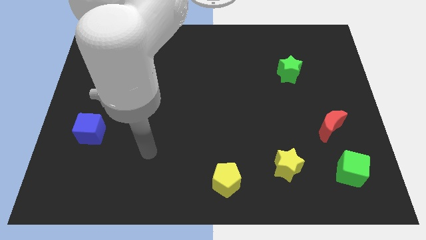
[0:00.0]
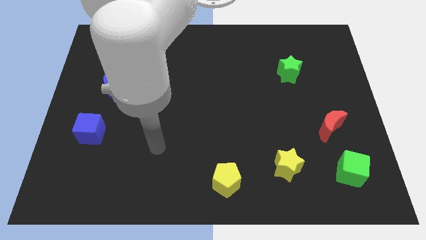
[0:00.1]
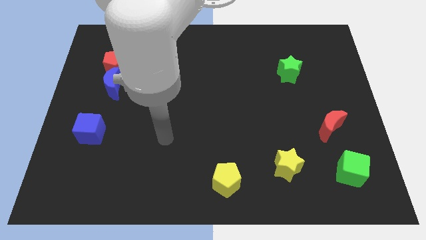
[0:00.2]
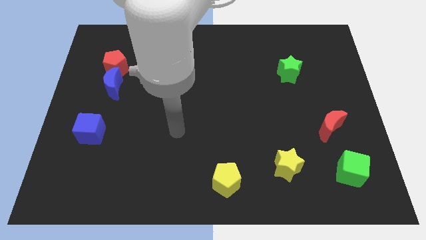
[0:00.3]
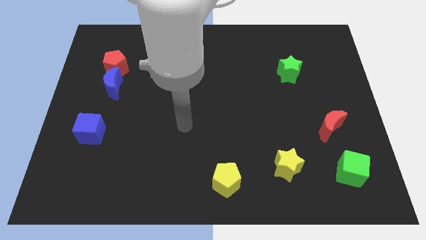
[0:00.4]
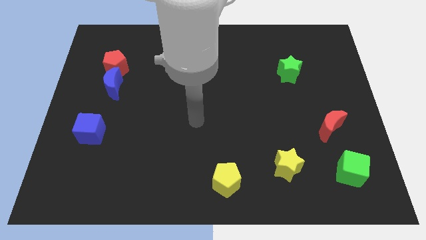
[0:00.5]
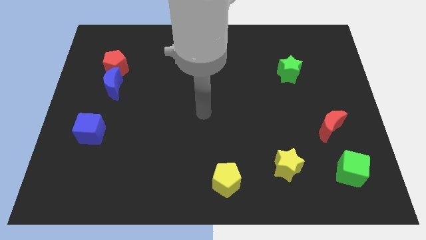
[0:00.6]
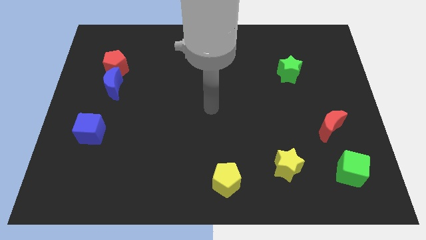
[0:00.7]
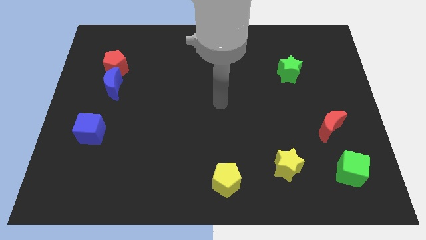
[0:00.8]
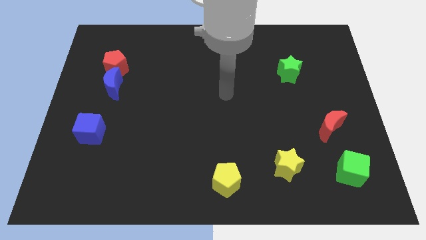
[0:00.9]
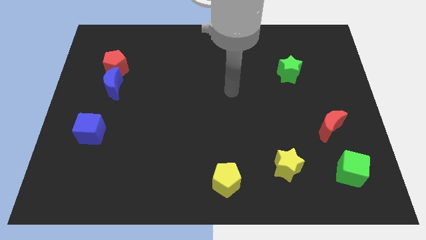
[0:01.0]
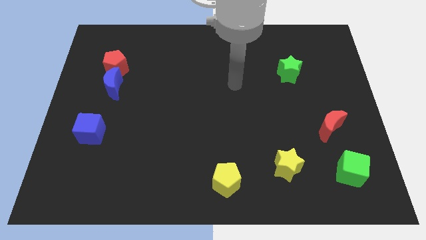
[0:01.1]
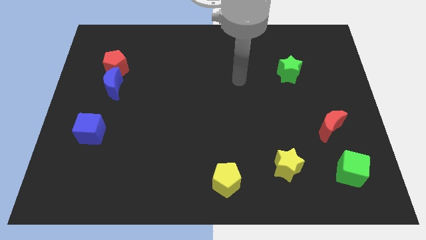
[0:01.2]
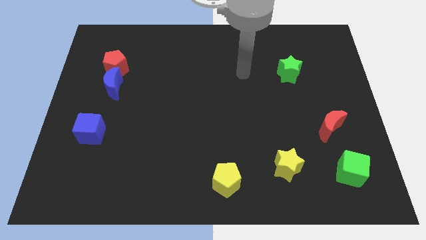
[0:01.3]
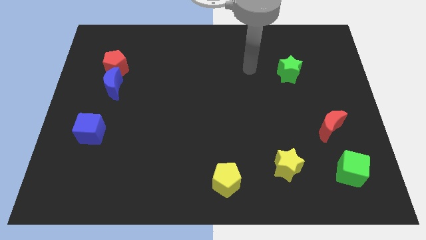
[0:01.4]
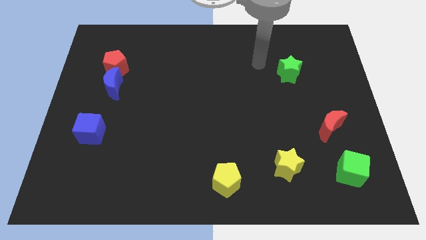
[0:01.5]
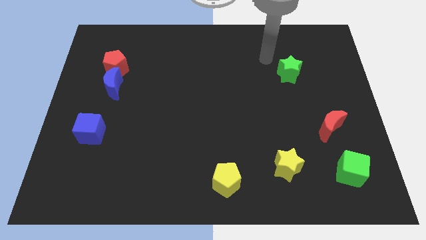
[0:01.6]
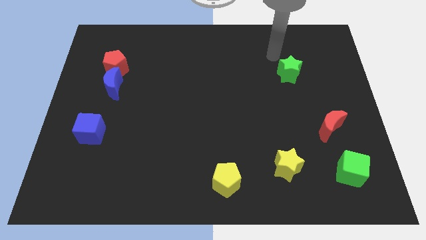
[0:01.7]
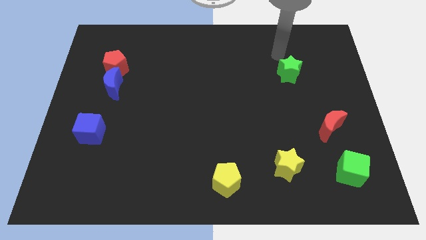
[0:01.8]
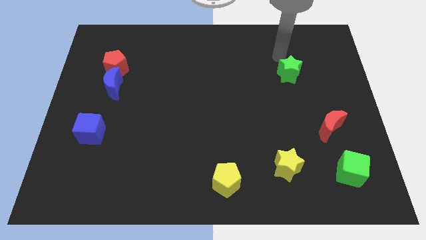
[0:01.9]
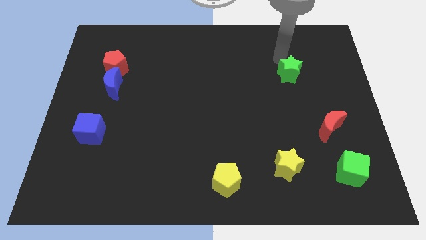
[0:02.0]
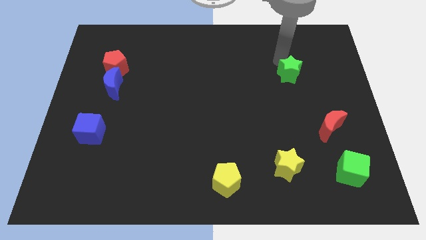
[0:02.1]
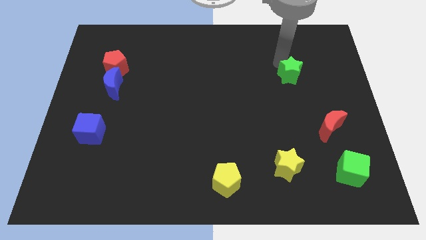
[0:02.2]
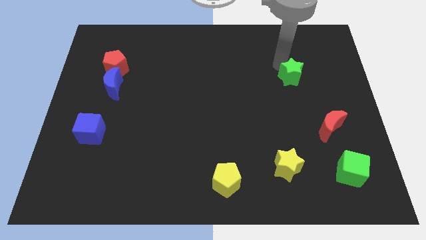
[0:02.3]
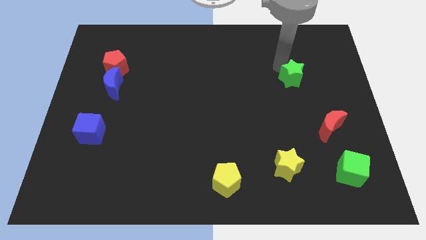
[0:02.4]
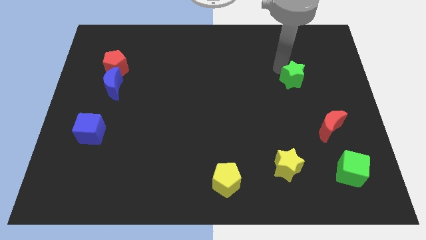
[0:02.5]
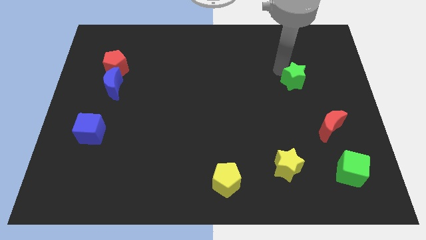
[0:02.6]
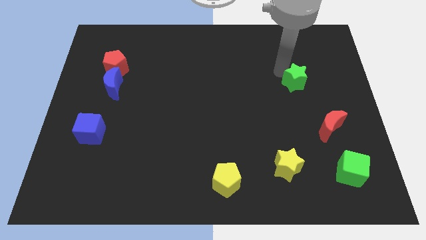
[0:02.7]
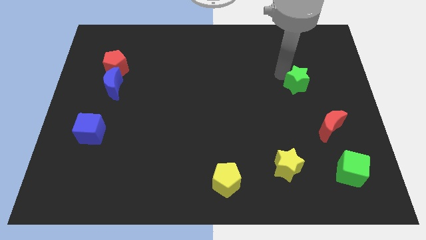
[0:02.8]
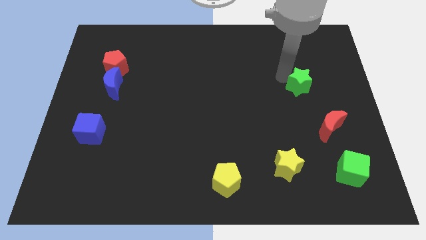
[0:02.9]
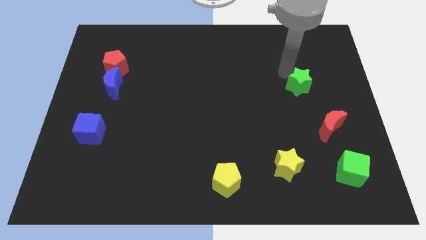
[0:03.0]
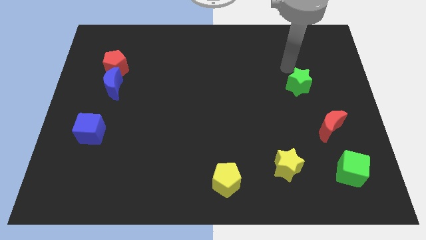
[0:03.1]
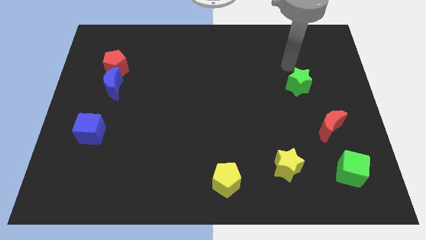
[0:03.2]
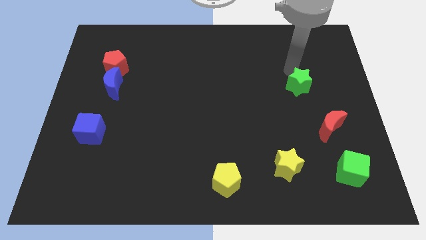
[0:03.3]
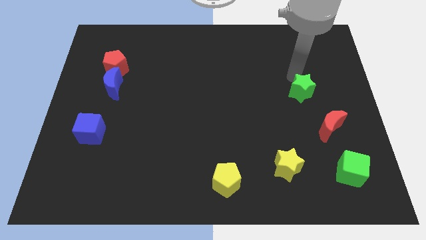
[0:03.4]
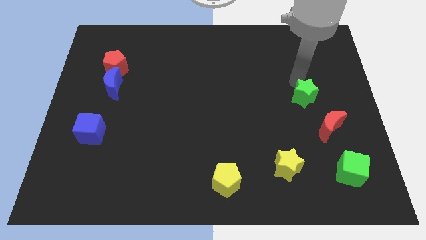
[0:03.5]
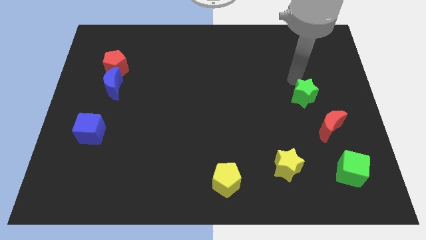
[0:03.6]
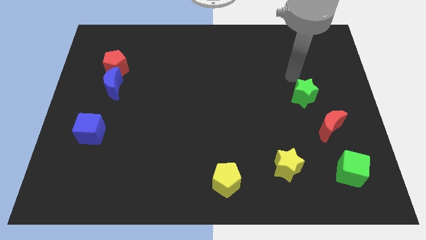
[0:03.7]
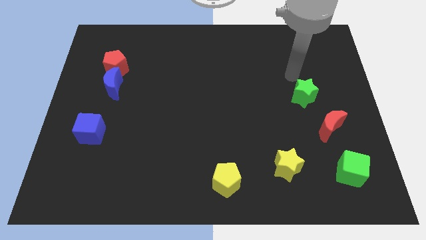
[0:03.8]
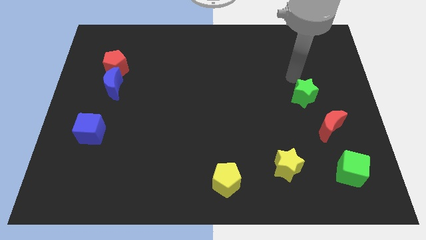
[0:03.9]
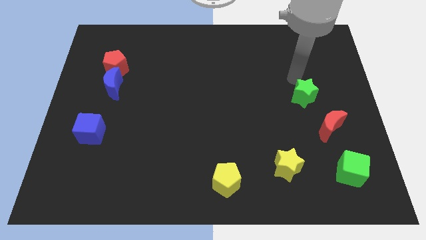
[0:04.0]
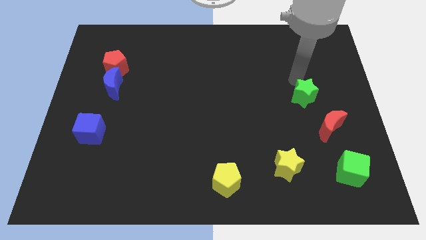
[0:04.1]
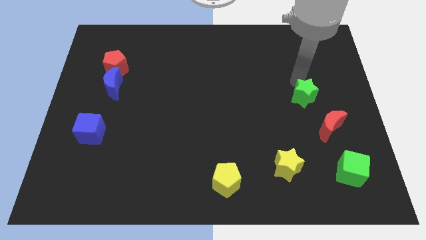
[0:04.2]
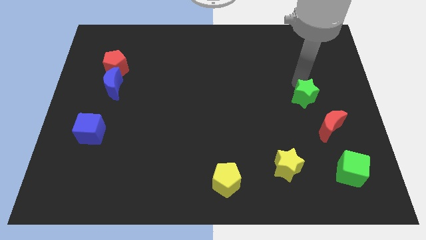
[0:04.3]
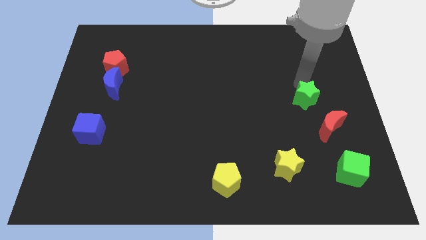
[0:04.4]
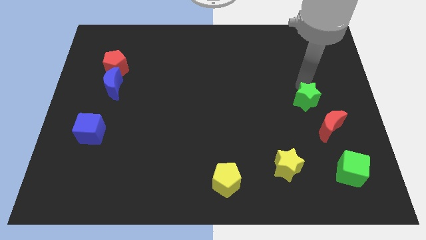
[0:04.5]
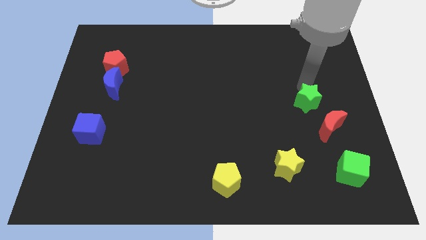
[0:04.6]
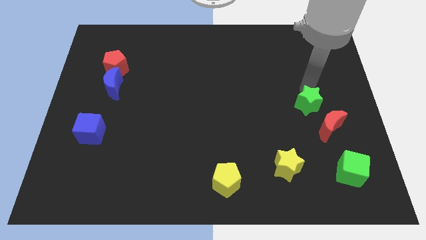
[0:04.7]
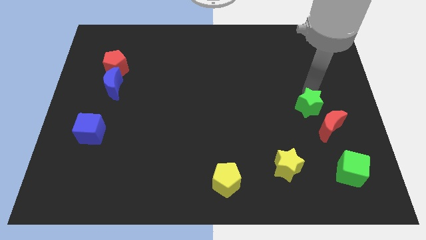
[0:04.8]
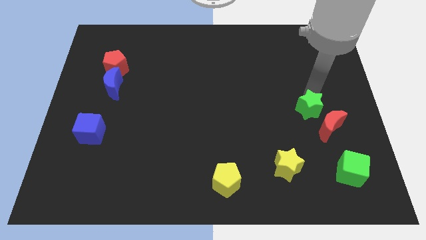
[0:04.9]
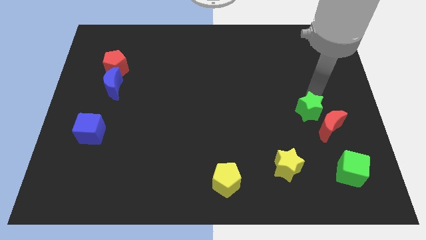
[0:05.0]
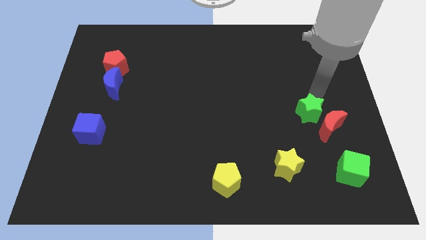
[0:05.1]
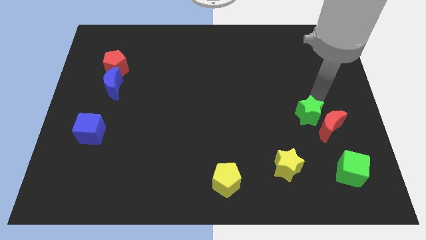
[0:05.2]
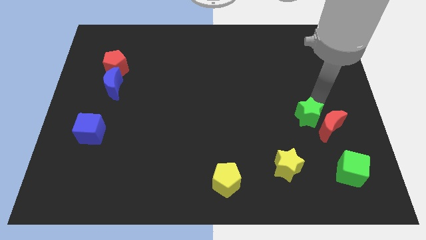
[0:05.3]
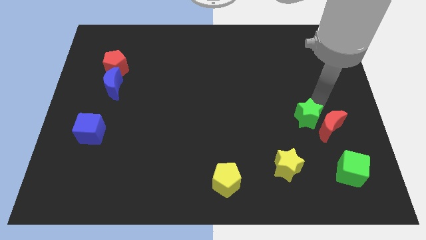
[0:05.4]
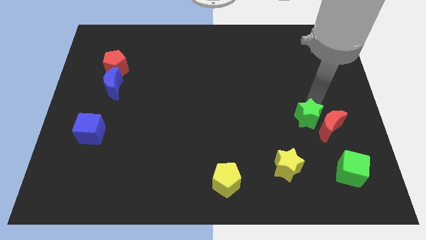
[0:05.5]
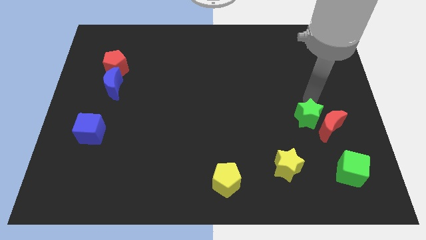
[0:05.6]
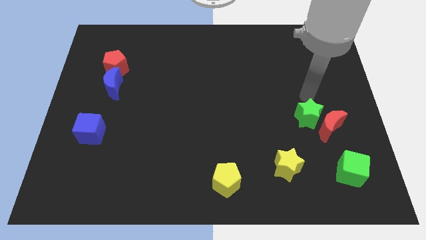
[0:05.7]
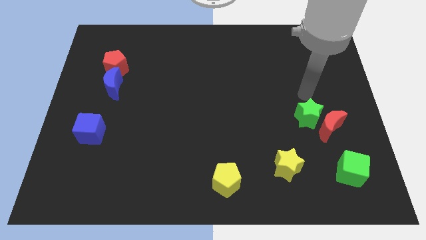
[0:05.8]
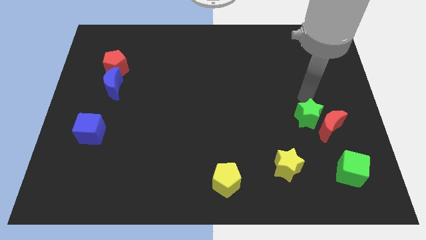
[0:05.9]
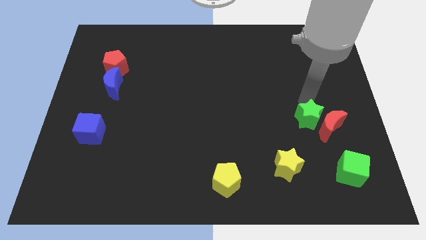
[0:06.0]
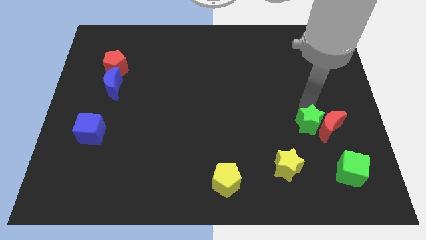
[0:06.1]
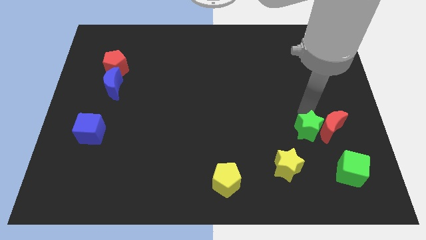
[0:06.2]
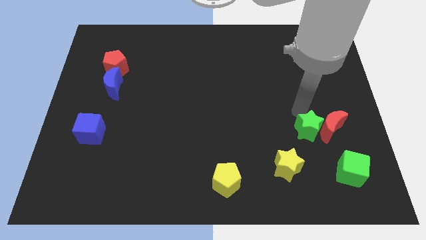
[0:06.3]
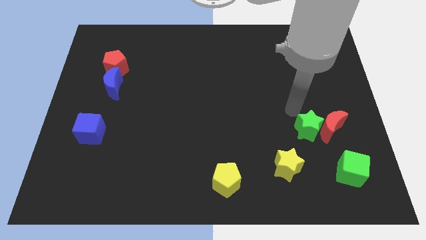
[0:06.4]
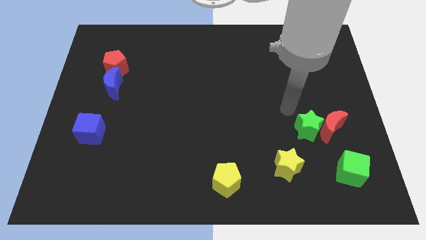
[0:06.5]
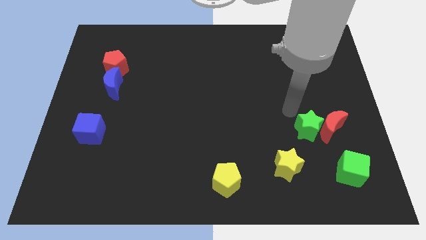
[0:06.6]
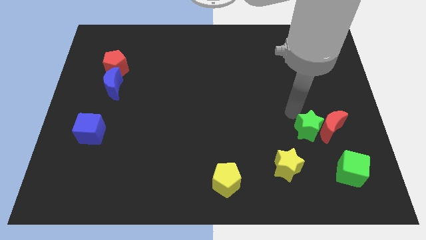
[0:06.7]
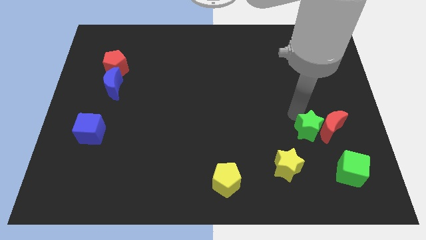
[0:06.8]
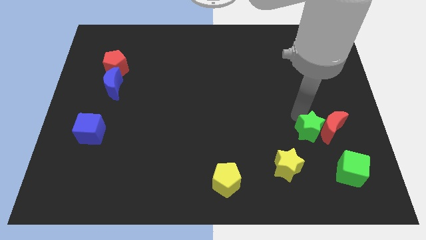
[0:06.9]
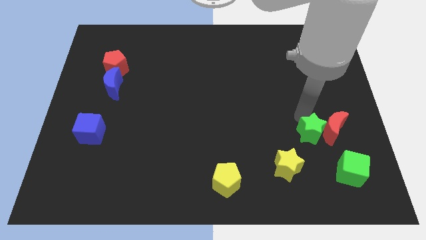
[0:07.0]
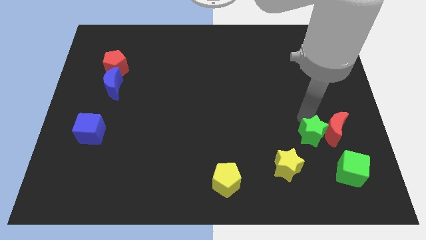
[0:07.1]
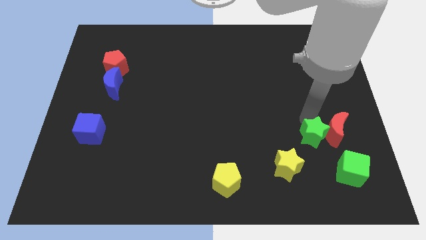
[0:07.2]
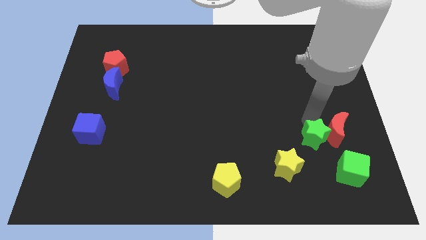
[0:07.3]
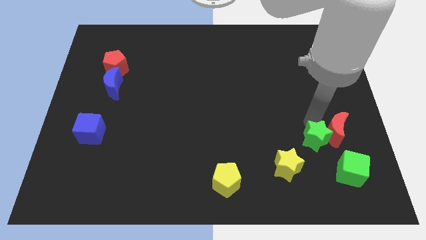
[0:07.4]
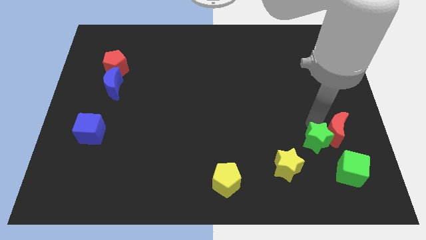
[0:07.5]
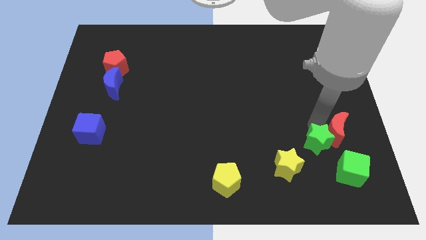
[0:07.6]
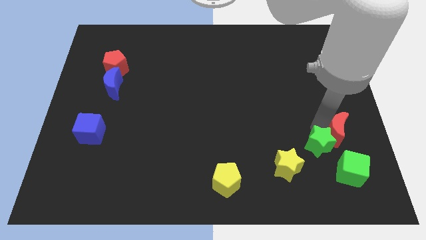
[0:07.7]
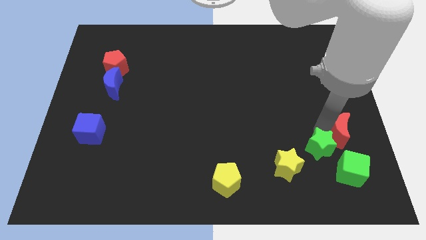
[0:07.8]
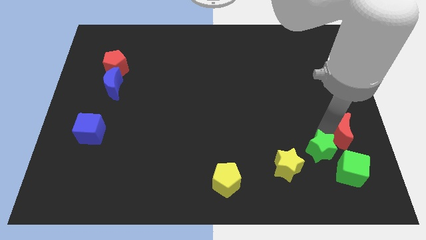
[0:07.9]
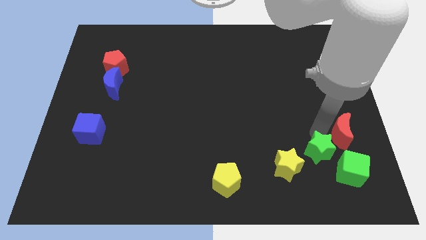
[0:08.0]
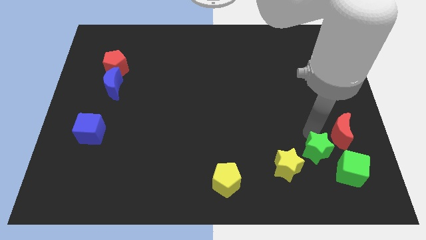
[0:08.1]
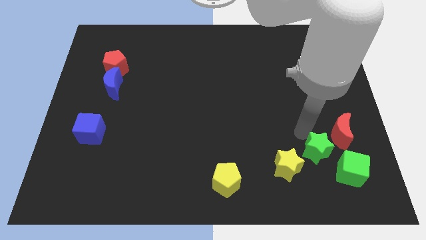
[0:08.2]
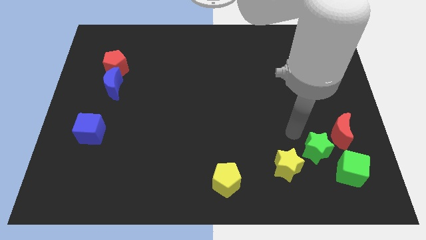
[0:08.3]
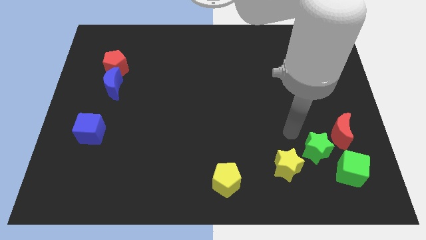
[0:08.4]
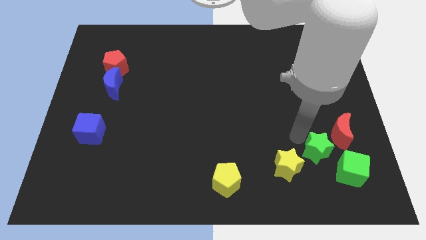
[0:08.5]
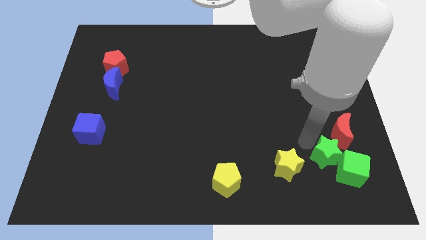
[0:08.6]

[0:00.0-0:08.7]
slide the green star next to the green cube
